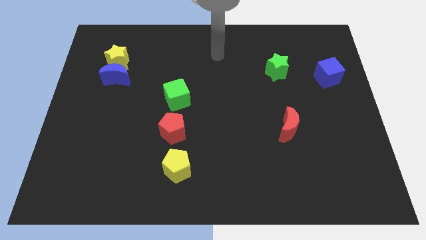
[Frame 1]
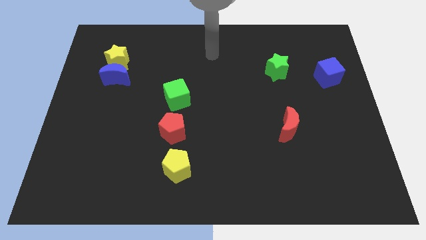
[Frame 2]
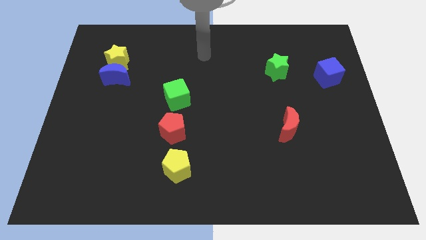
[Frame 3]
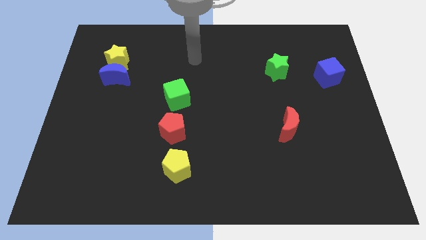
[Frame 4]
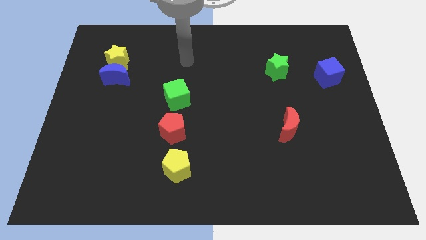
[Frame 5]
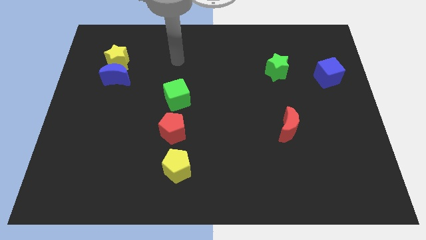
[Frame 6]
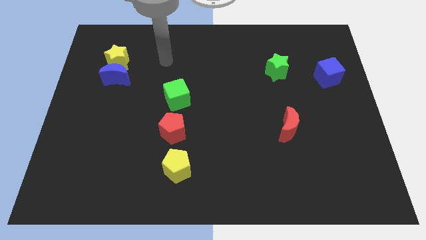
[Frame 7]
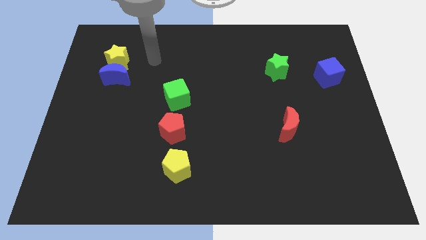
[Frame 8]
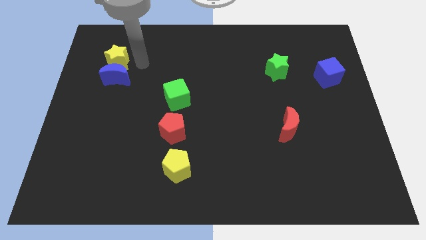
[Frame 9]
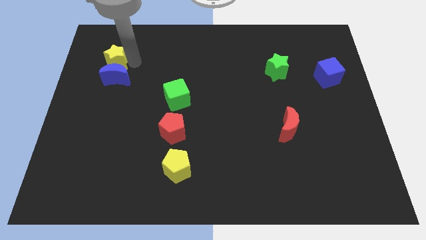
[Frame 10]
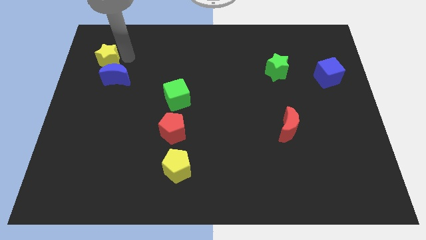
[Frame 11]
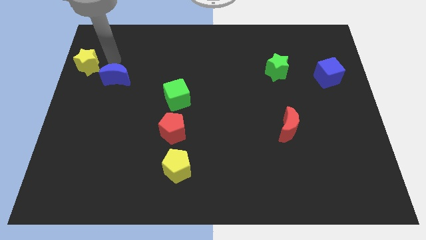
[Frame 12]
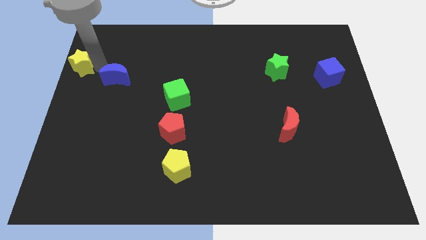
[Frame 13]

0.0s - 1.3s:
separate the blue moon from the yellow star

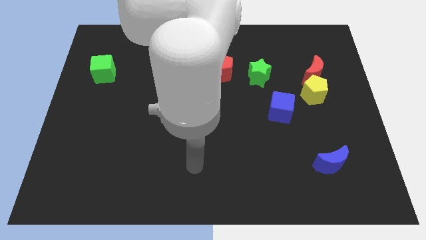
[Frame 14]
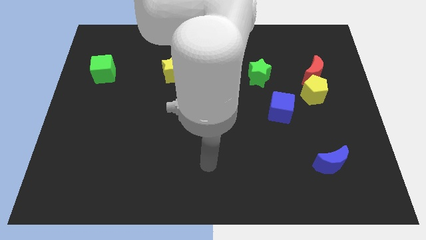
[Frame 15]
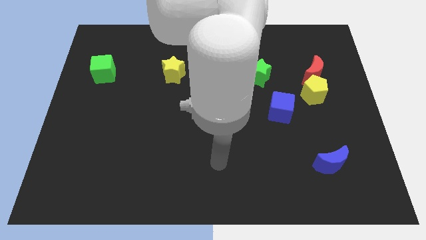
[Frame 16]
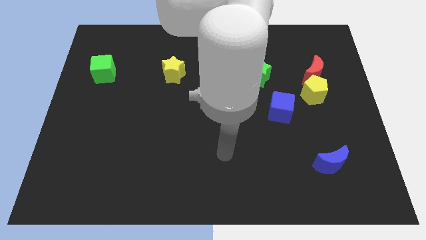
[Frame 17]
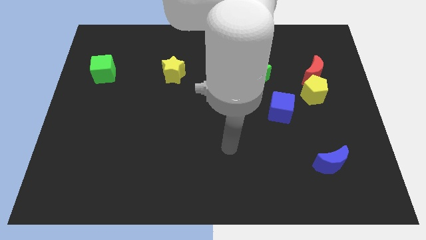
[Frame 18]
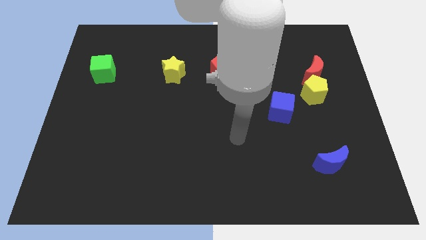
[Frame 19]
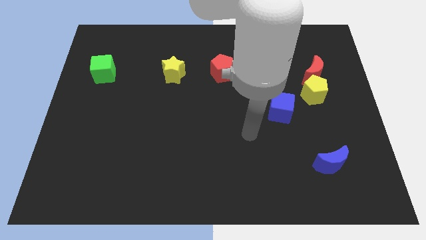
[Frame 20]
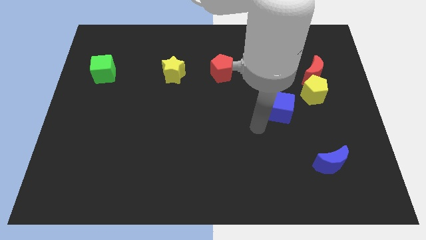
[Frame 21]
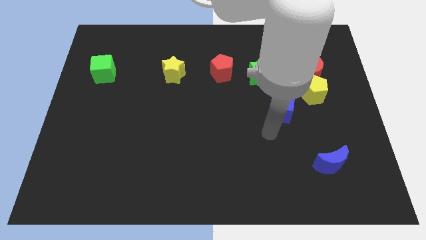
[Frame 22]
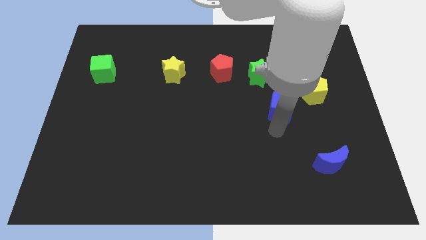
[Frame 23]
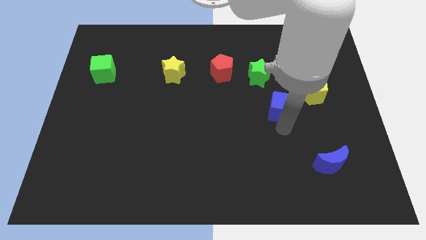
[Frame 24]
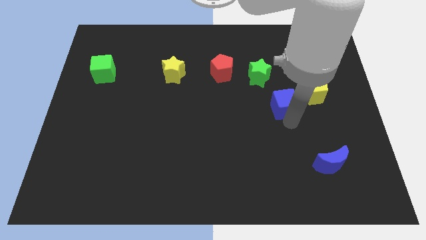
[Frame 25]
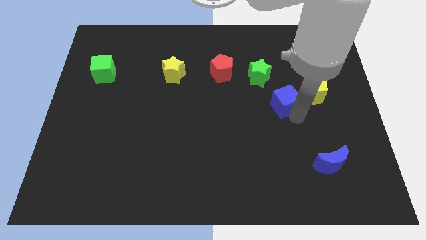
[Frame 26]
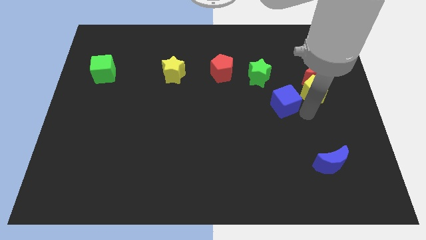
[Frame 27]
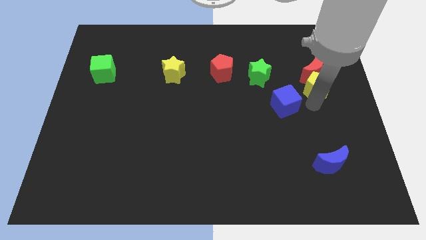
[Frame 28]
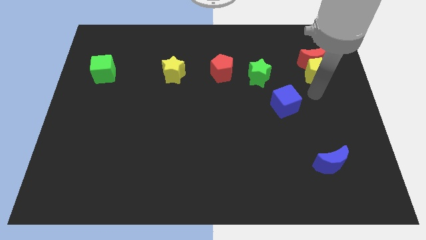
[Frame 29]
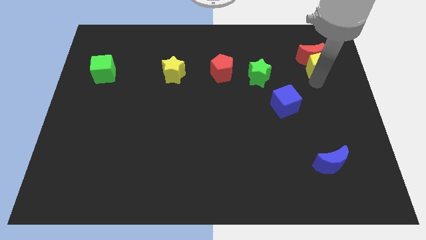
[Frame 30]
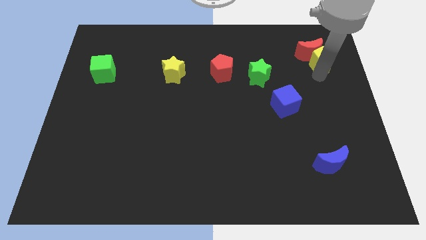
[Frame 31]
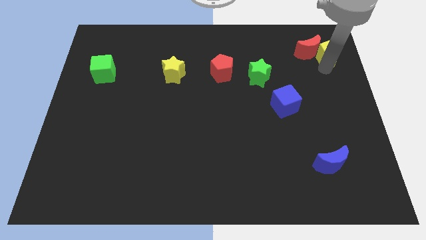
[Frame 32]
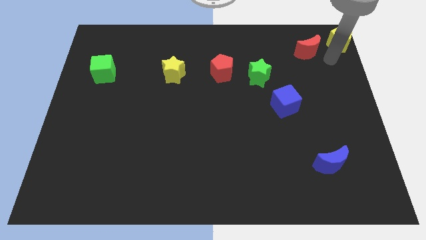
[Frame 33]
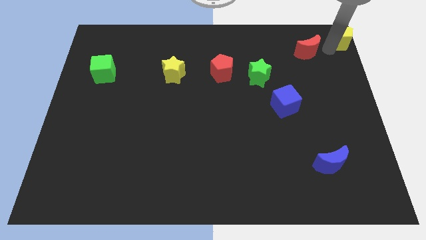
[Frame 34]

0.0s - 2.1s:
pull the red moon apart from the yellow pentagon

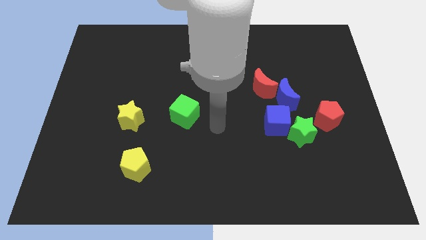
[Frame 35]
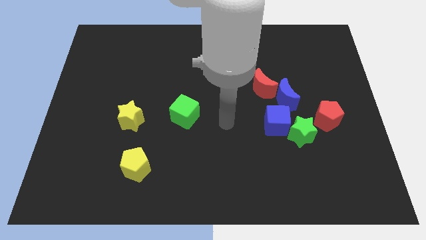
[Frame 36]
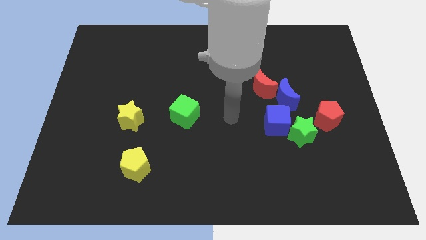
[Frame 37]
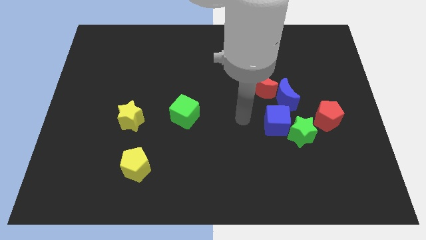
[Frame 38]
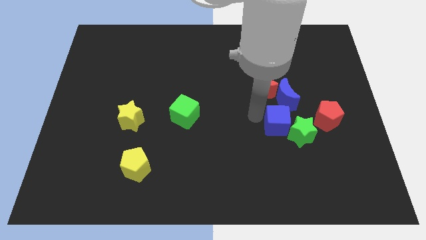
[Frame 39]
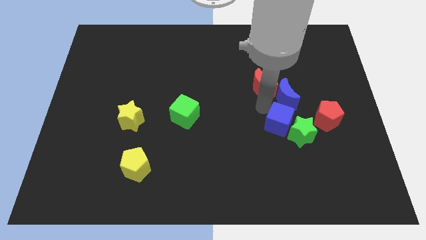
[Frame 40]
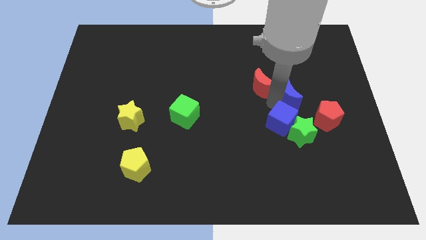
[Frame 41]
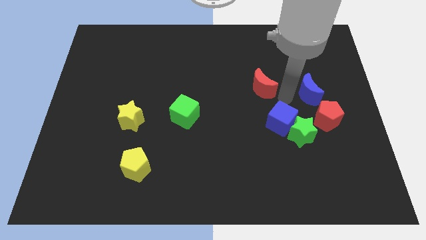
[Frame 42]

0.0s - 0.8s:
pull the red moon apart from the blue moon

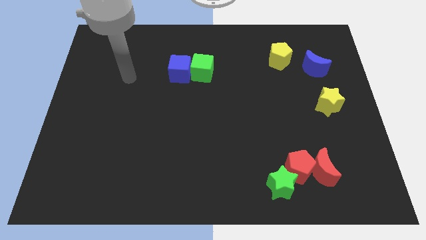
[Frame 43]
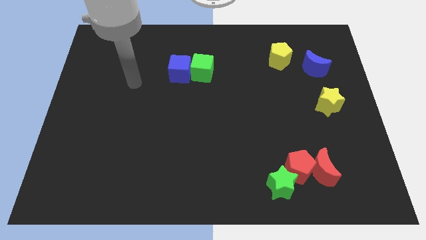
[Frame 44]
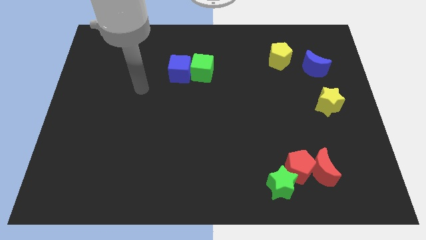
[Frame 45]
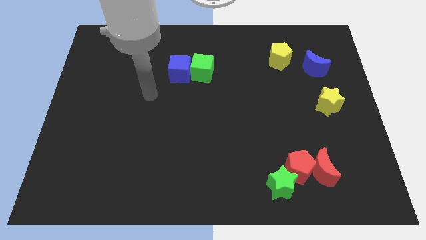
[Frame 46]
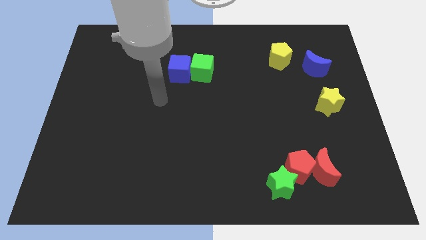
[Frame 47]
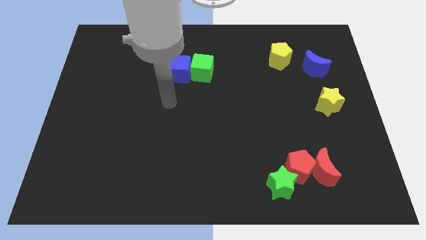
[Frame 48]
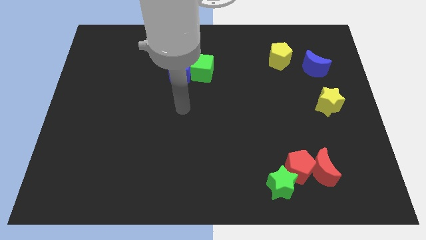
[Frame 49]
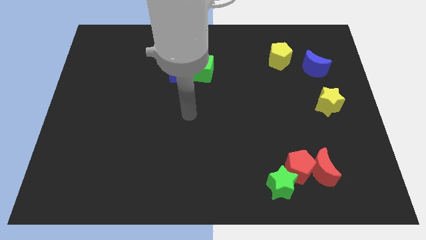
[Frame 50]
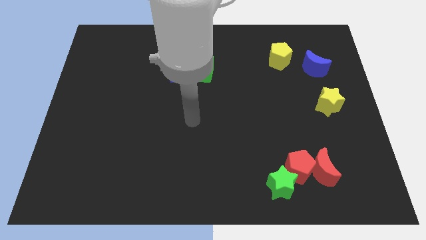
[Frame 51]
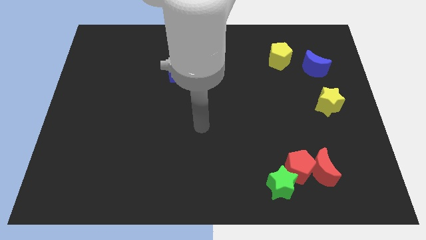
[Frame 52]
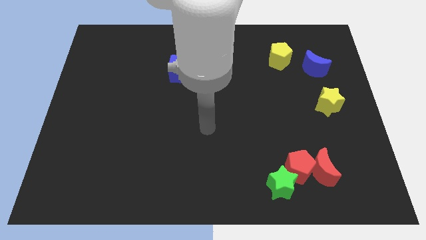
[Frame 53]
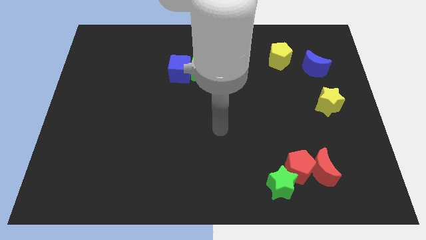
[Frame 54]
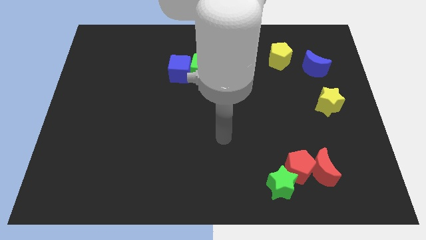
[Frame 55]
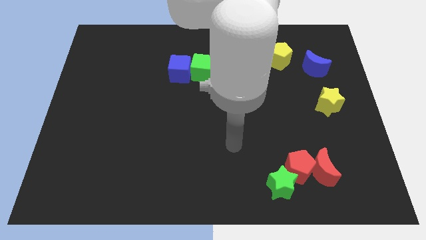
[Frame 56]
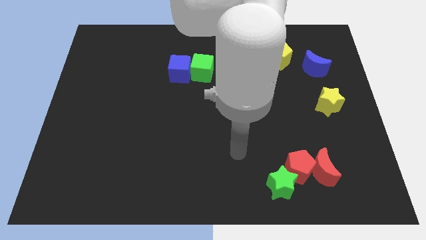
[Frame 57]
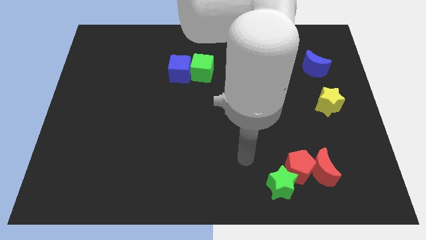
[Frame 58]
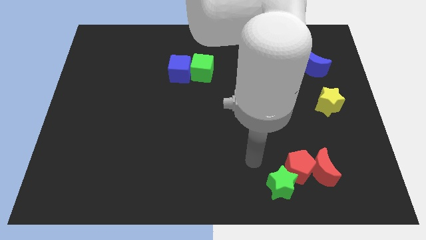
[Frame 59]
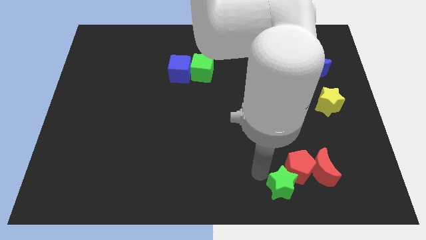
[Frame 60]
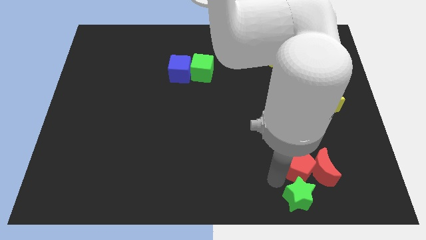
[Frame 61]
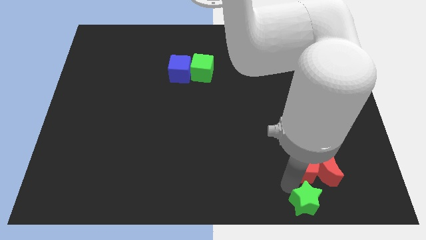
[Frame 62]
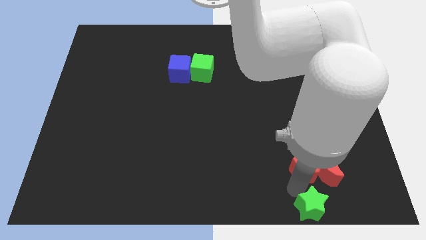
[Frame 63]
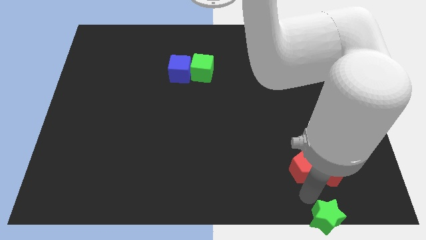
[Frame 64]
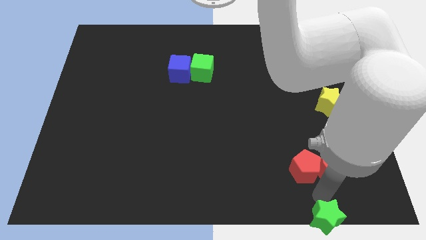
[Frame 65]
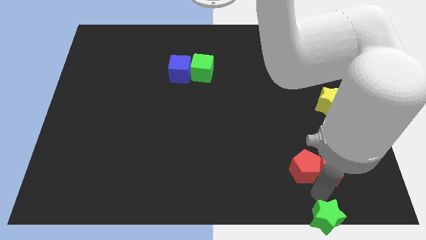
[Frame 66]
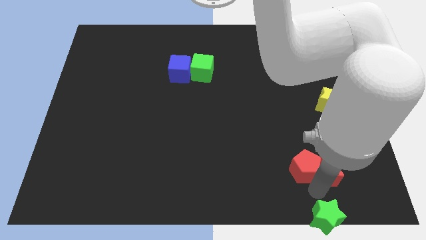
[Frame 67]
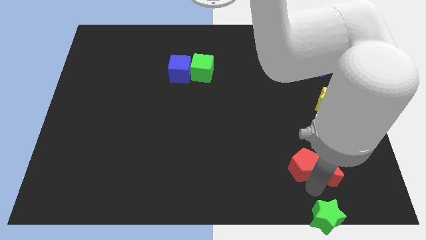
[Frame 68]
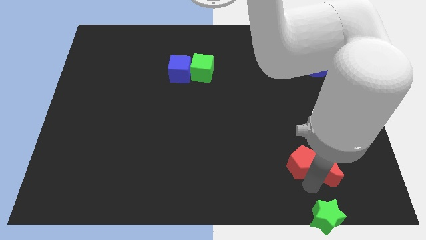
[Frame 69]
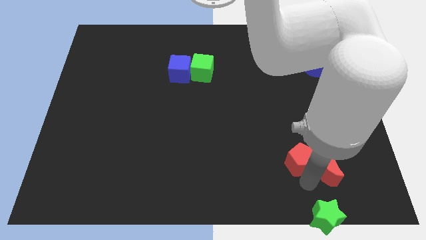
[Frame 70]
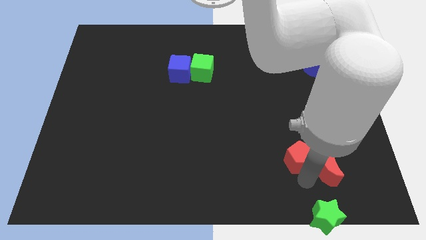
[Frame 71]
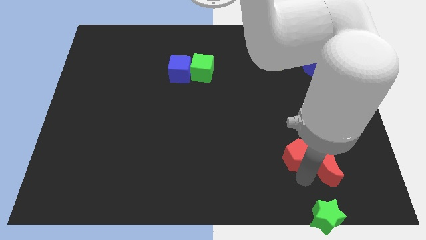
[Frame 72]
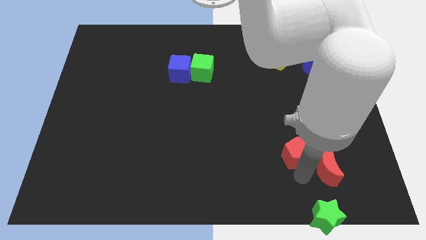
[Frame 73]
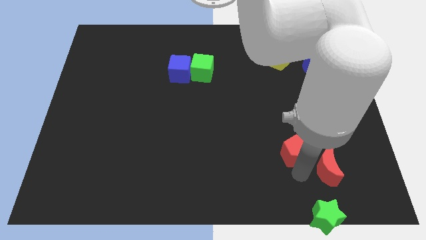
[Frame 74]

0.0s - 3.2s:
separate the red pentagon from the red moon and green star

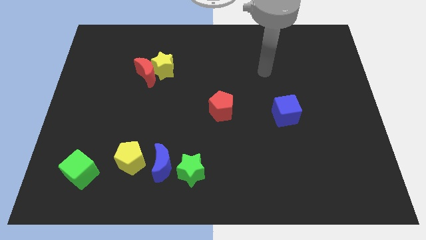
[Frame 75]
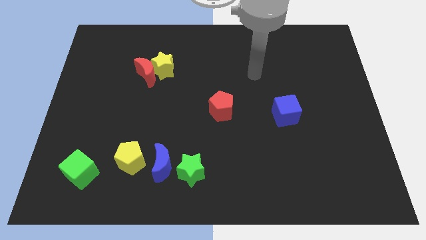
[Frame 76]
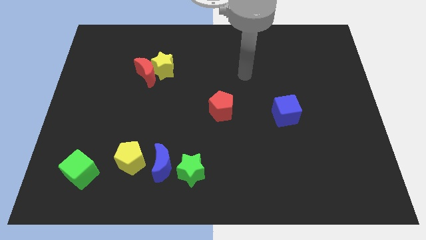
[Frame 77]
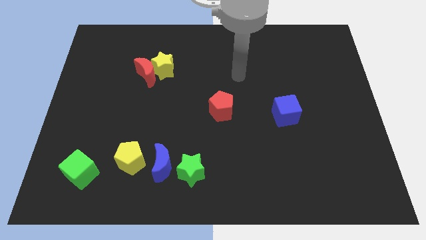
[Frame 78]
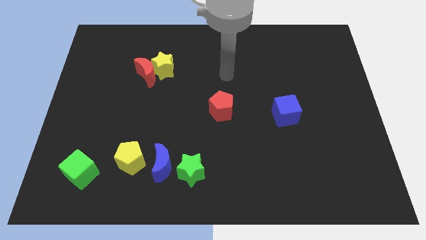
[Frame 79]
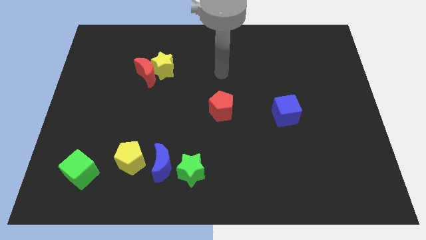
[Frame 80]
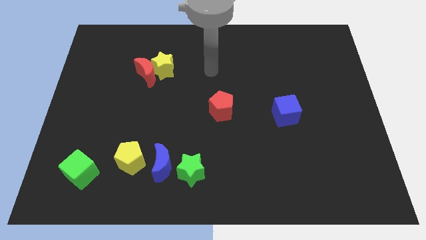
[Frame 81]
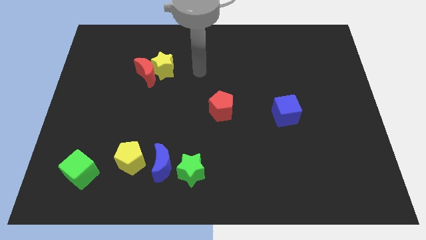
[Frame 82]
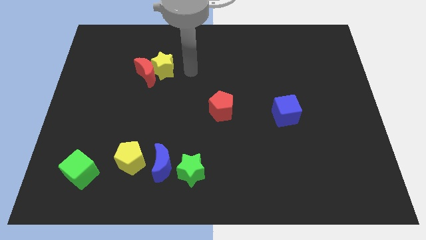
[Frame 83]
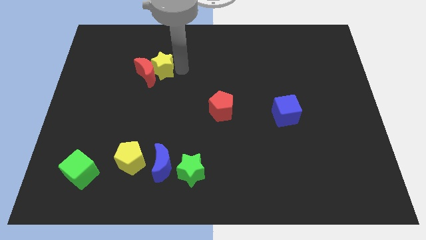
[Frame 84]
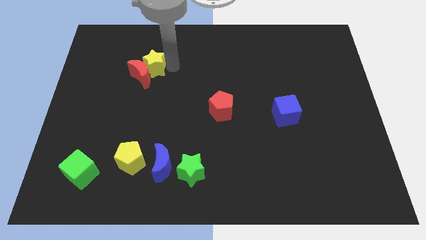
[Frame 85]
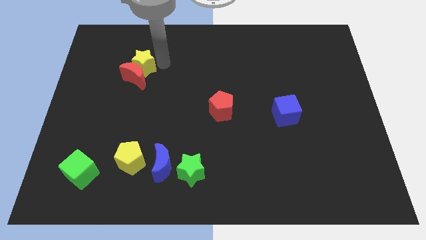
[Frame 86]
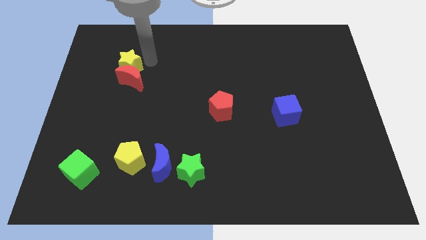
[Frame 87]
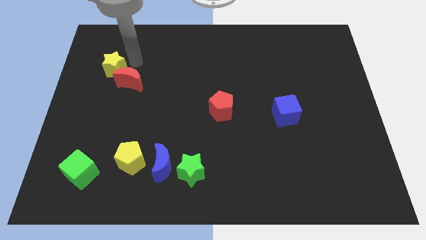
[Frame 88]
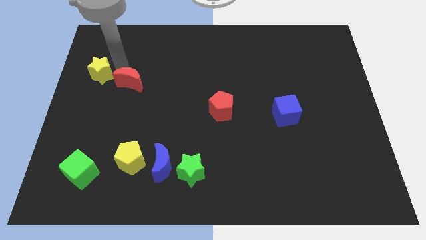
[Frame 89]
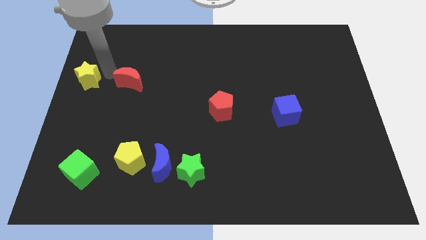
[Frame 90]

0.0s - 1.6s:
separate the red moon from the yellow star

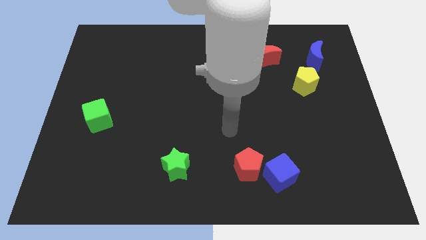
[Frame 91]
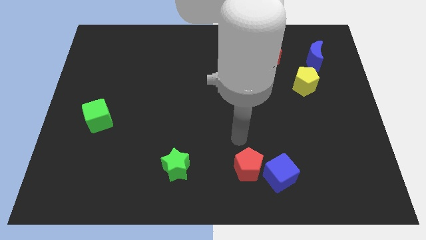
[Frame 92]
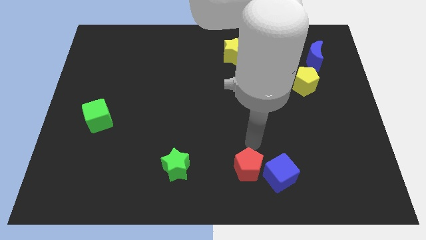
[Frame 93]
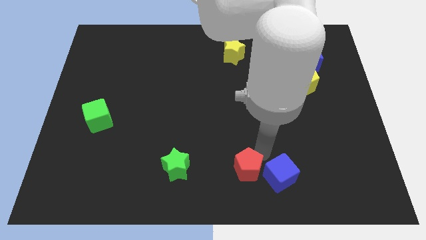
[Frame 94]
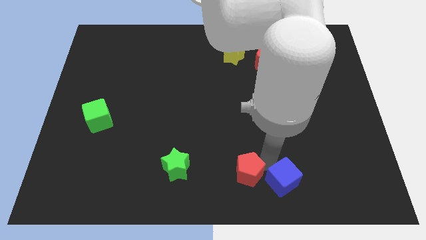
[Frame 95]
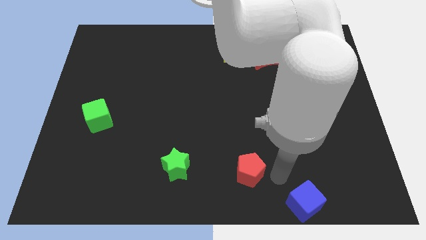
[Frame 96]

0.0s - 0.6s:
separate the red pentagon from the blue cube
